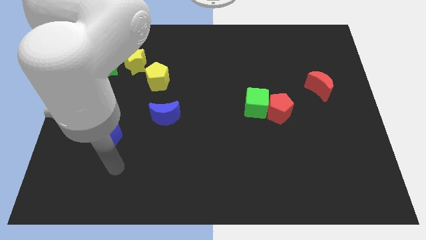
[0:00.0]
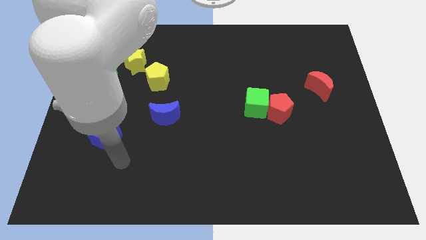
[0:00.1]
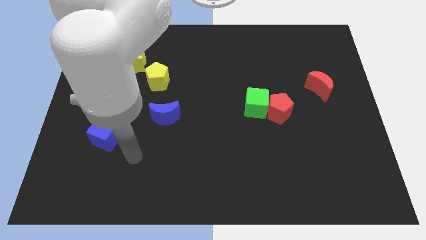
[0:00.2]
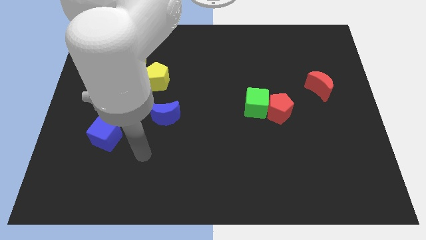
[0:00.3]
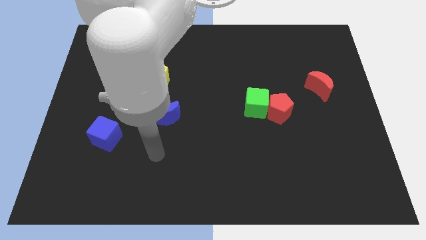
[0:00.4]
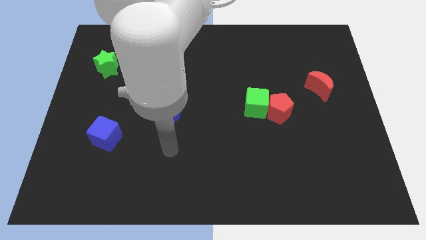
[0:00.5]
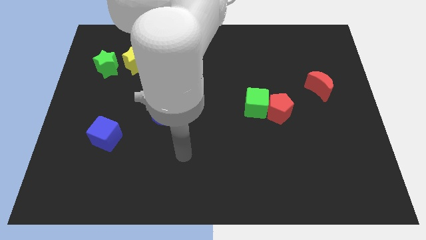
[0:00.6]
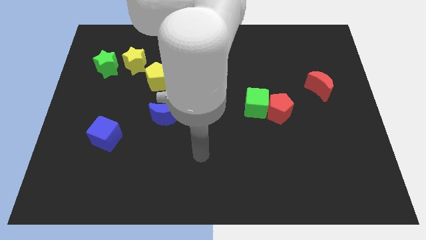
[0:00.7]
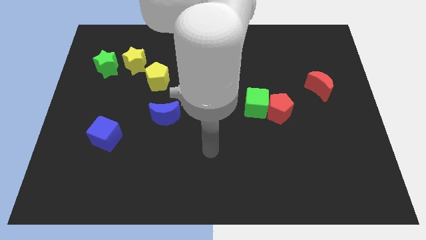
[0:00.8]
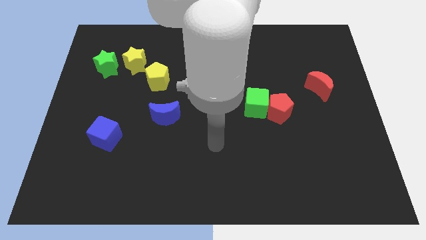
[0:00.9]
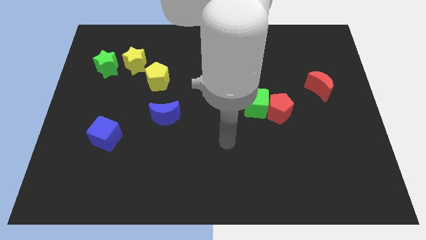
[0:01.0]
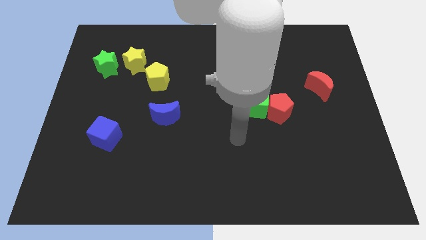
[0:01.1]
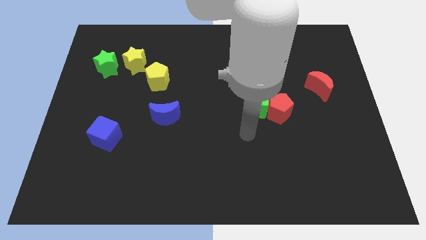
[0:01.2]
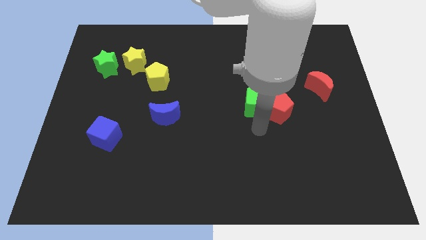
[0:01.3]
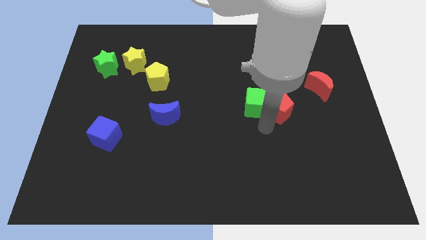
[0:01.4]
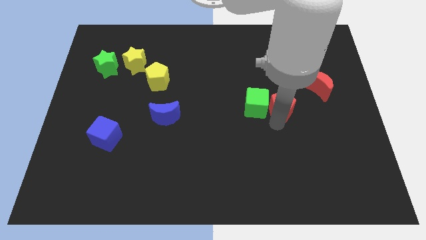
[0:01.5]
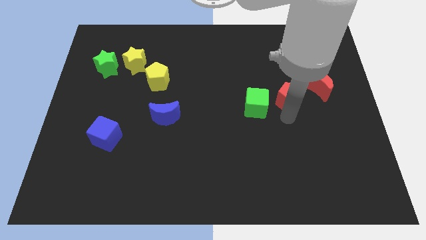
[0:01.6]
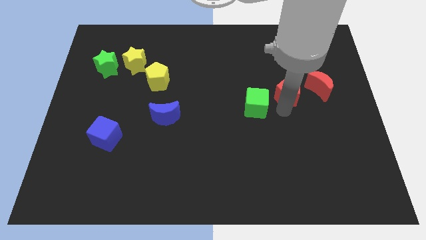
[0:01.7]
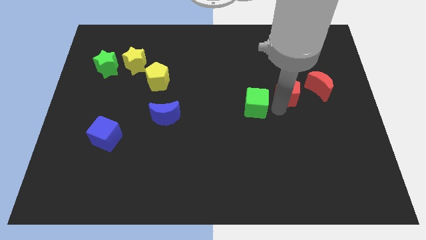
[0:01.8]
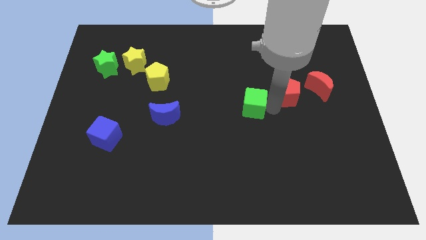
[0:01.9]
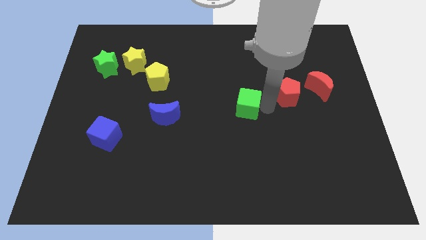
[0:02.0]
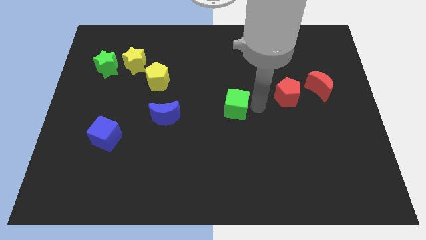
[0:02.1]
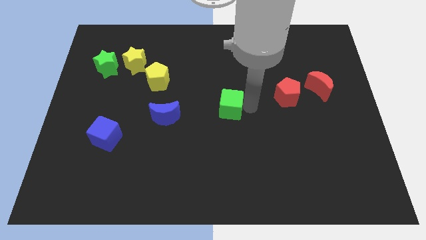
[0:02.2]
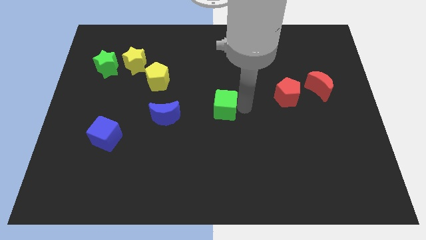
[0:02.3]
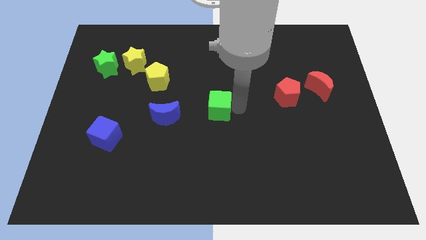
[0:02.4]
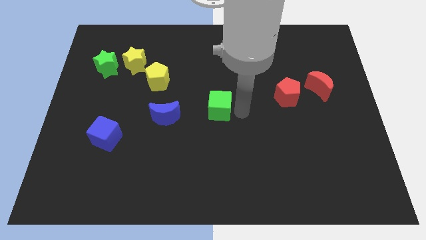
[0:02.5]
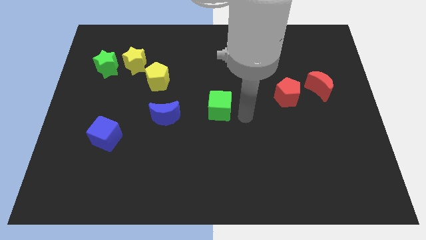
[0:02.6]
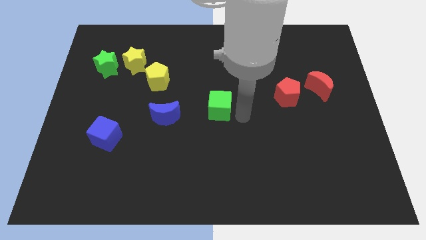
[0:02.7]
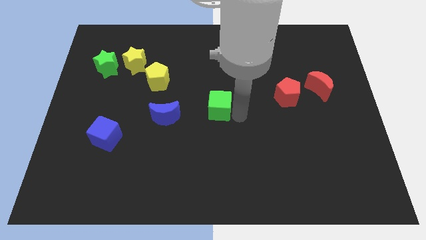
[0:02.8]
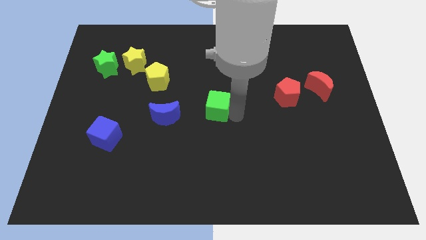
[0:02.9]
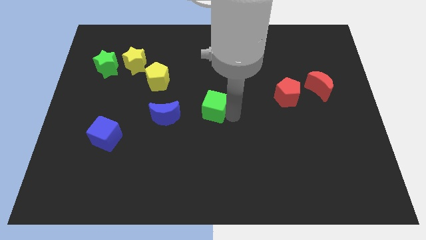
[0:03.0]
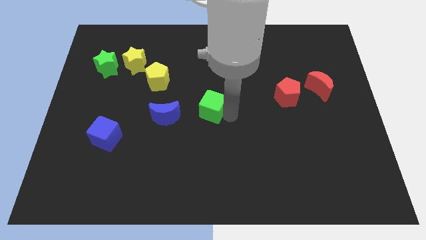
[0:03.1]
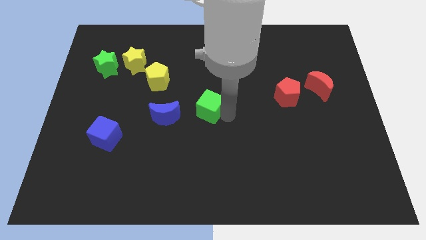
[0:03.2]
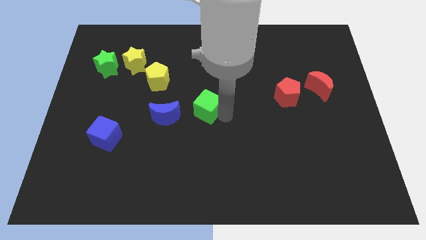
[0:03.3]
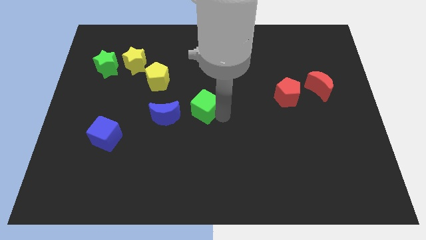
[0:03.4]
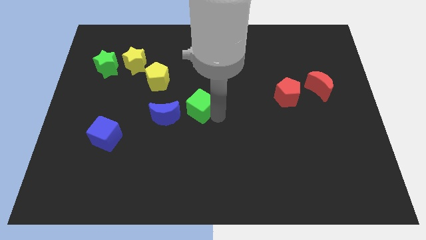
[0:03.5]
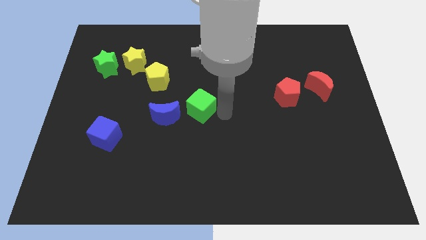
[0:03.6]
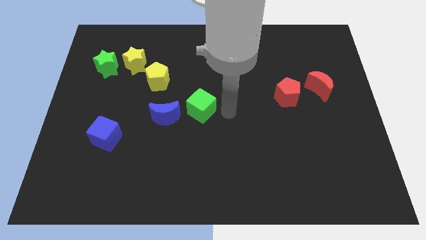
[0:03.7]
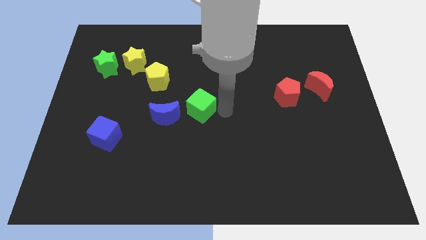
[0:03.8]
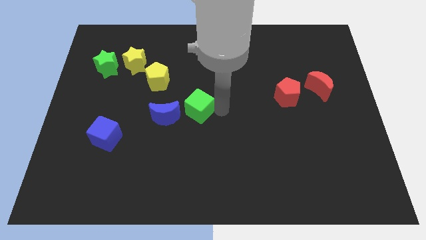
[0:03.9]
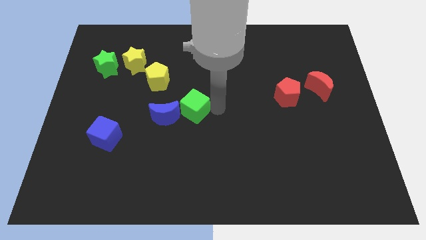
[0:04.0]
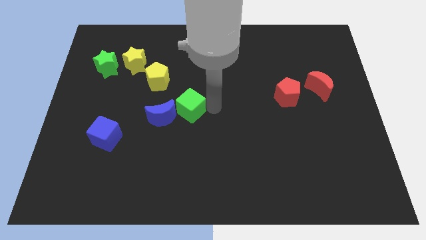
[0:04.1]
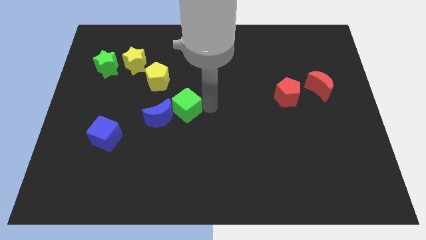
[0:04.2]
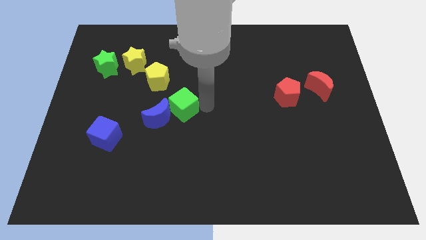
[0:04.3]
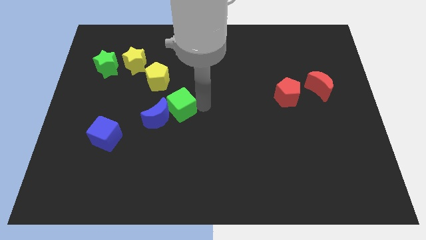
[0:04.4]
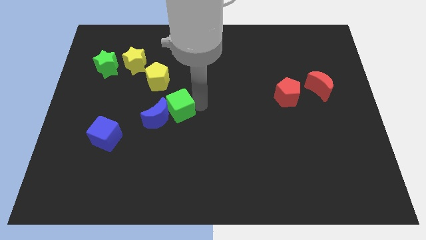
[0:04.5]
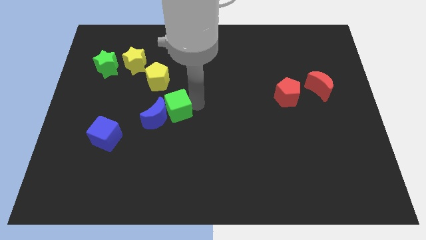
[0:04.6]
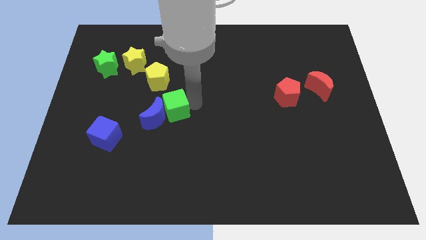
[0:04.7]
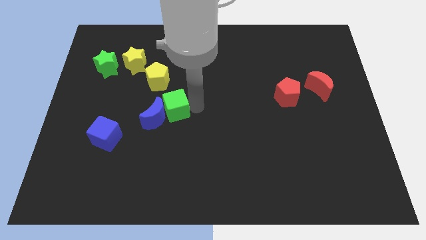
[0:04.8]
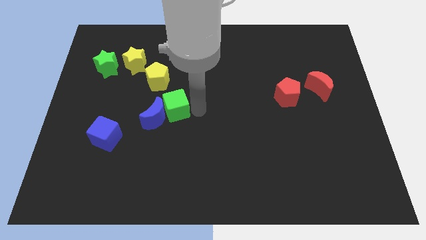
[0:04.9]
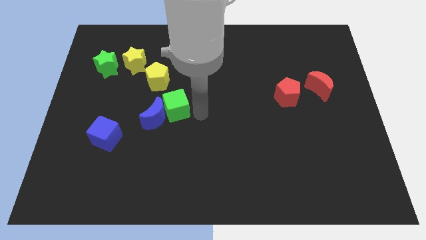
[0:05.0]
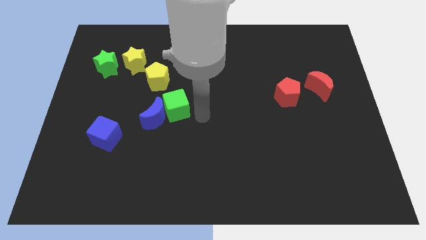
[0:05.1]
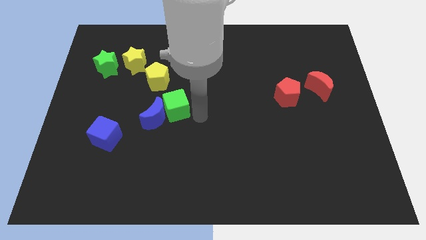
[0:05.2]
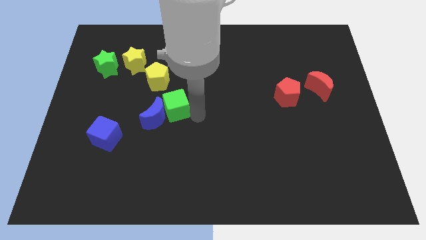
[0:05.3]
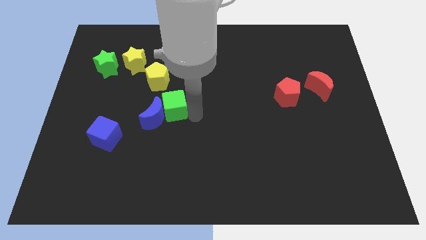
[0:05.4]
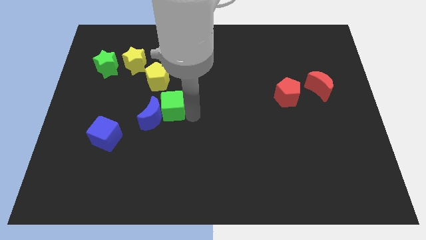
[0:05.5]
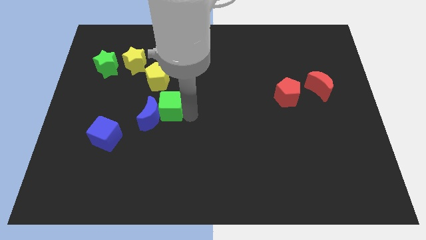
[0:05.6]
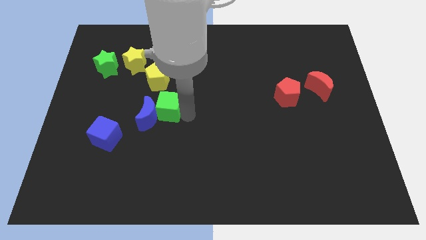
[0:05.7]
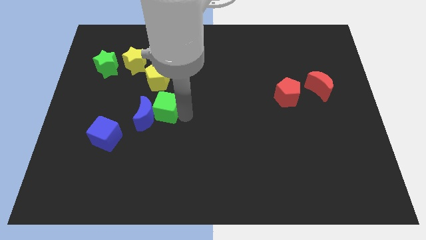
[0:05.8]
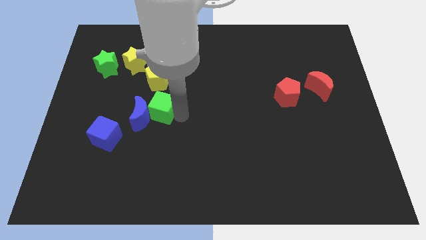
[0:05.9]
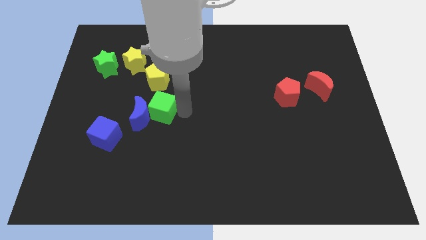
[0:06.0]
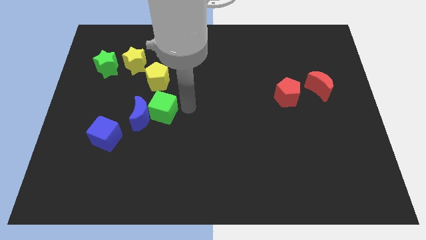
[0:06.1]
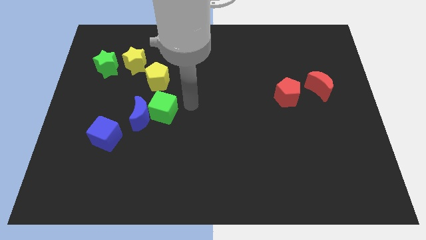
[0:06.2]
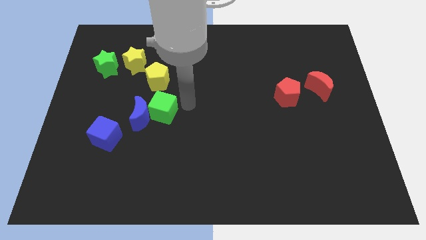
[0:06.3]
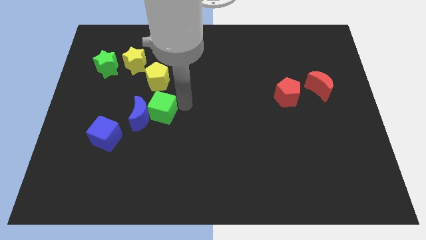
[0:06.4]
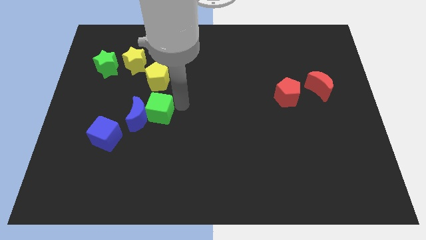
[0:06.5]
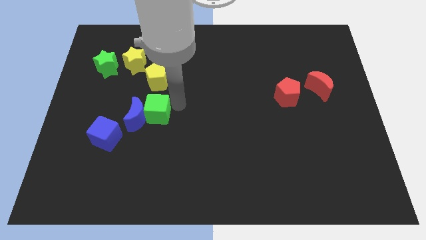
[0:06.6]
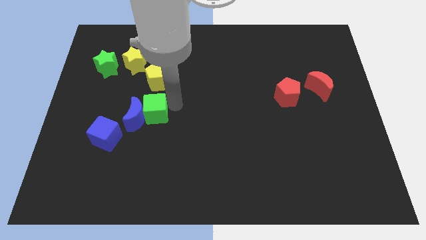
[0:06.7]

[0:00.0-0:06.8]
move the green cube diagonally up and to the right of the blue cube

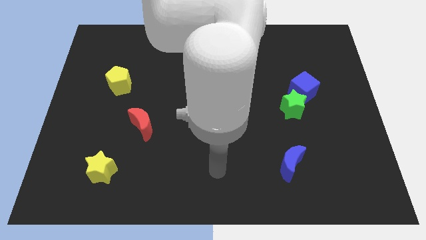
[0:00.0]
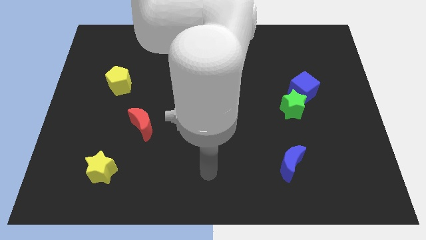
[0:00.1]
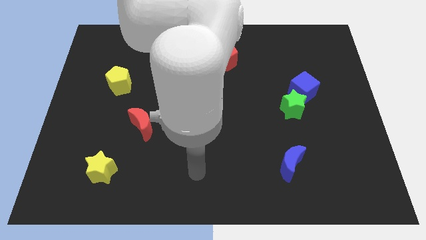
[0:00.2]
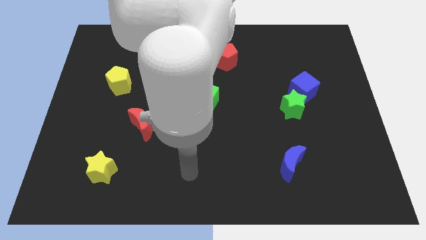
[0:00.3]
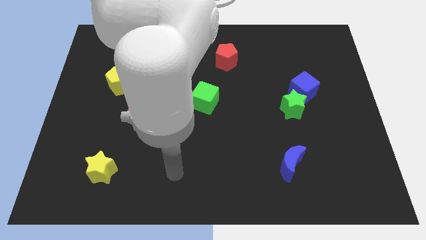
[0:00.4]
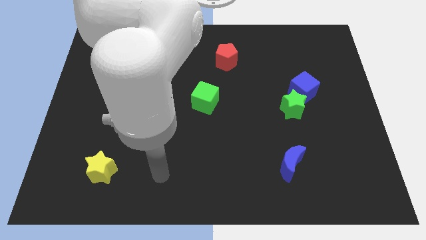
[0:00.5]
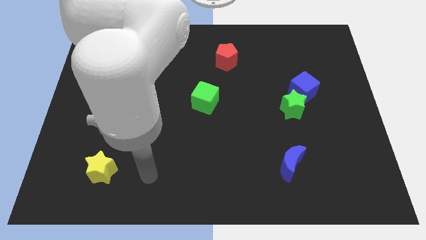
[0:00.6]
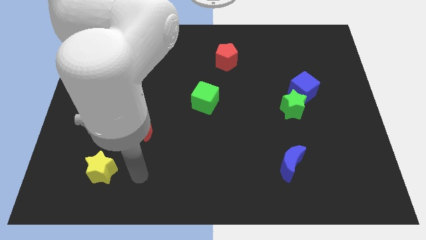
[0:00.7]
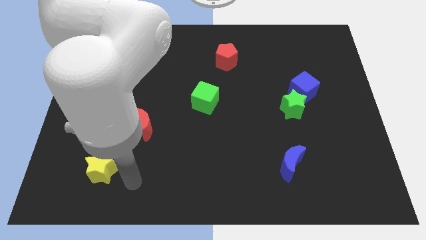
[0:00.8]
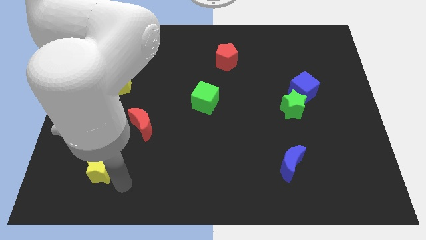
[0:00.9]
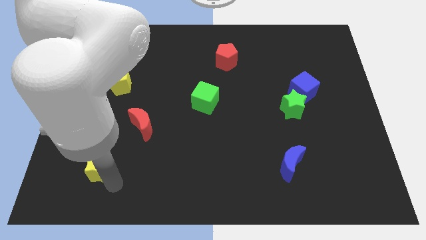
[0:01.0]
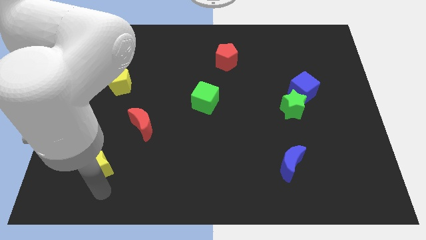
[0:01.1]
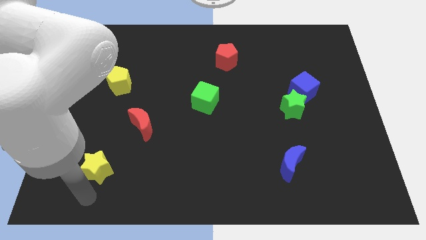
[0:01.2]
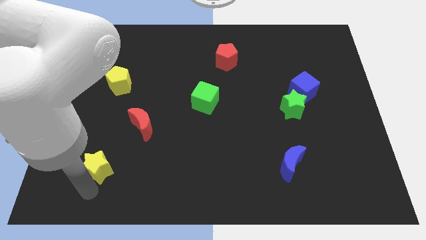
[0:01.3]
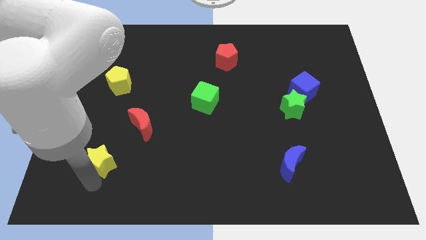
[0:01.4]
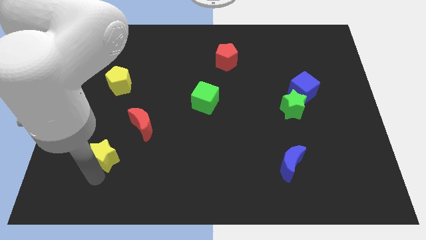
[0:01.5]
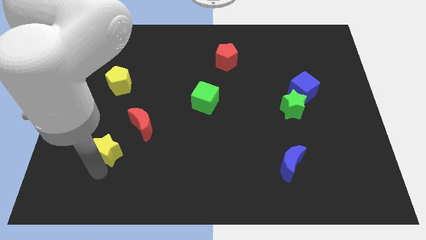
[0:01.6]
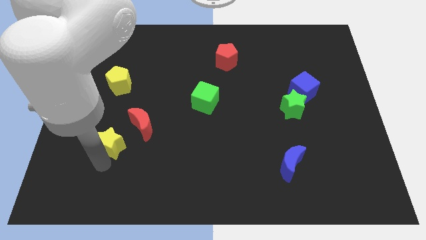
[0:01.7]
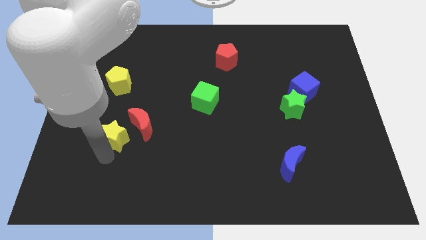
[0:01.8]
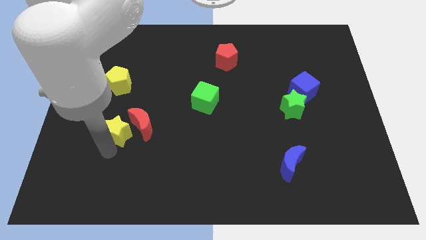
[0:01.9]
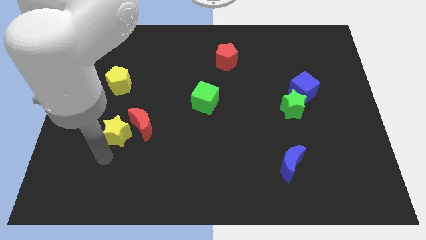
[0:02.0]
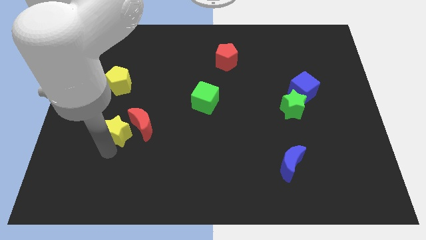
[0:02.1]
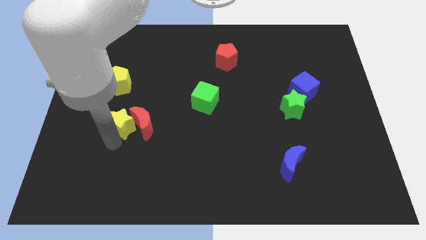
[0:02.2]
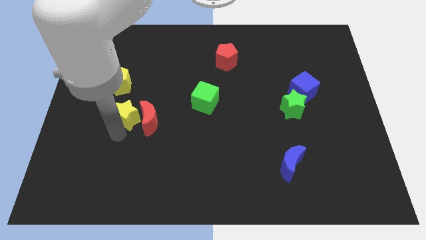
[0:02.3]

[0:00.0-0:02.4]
move the yellow star diagonally down and to the right of the yellow pentagon
